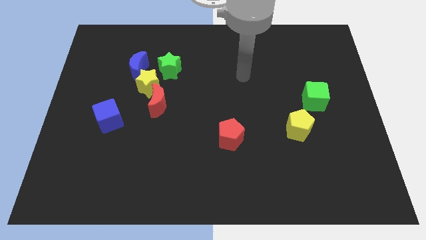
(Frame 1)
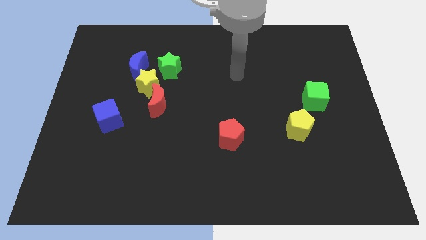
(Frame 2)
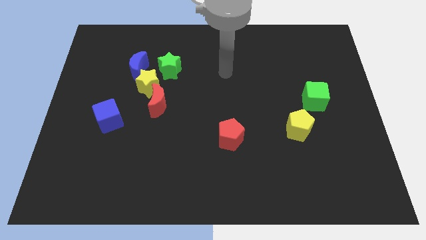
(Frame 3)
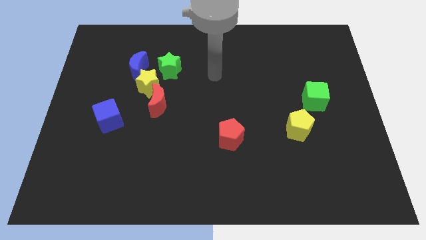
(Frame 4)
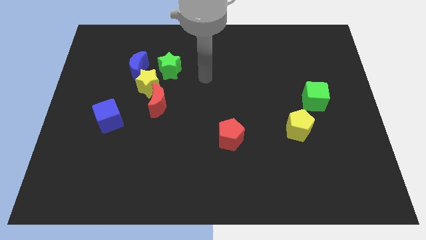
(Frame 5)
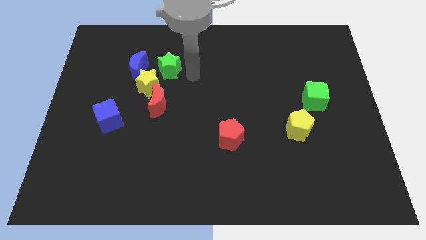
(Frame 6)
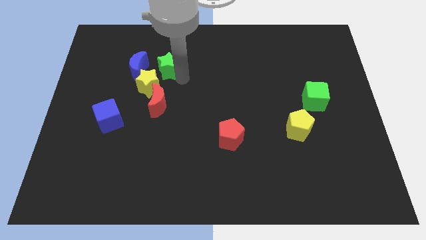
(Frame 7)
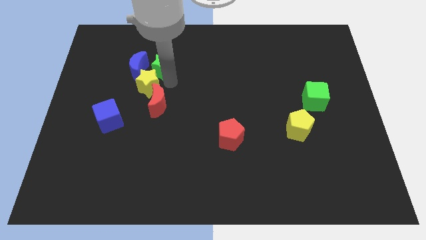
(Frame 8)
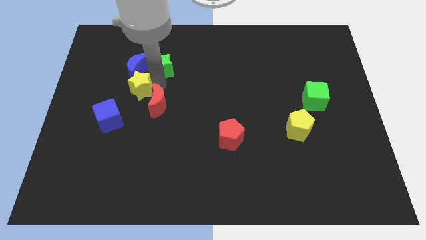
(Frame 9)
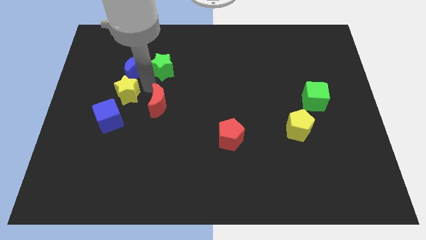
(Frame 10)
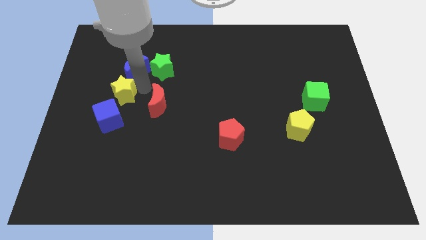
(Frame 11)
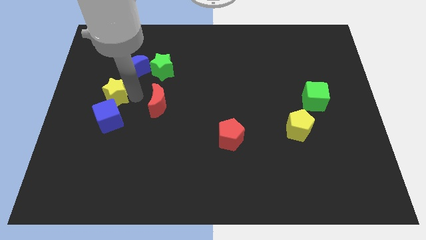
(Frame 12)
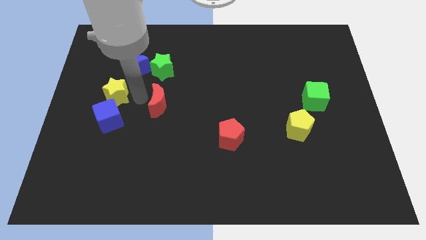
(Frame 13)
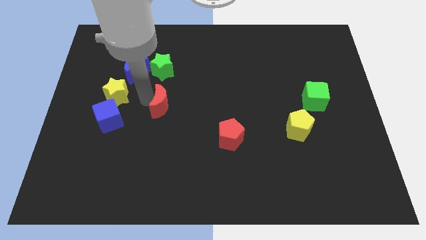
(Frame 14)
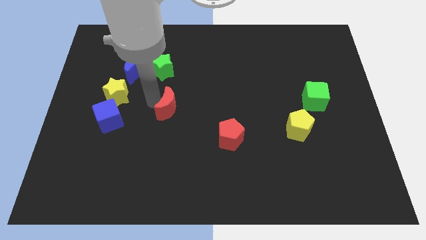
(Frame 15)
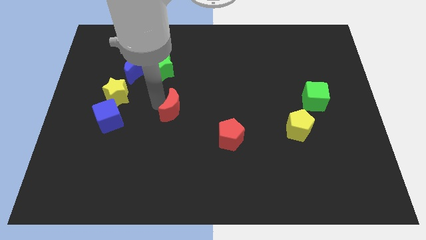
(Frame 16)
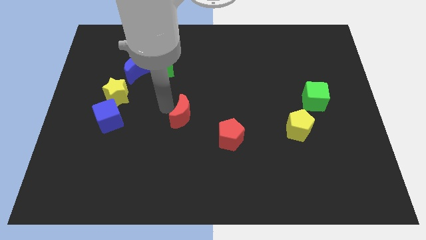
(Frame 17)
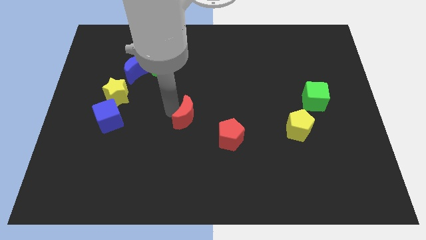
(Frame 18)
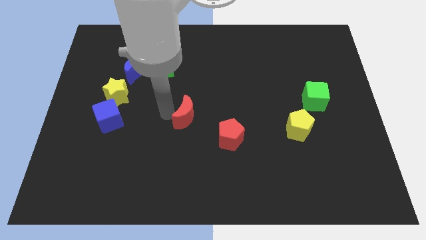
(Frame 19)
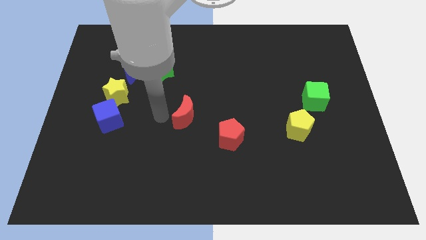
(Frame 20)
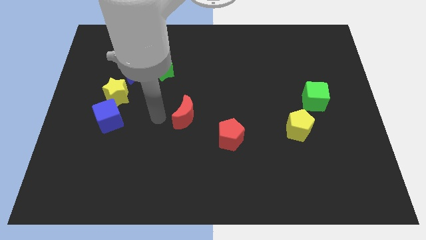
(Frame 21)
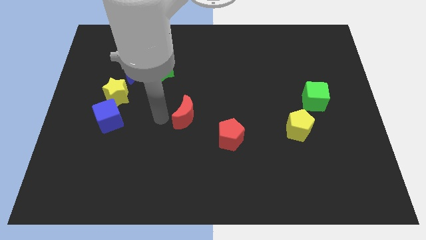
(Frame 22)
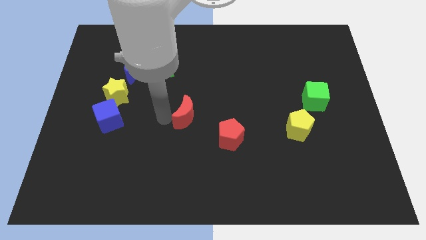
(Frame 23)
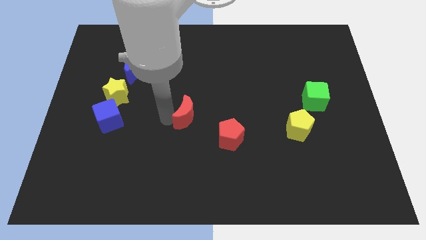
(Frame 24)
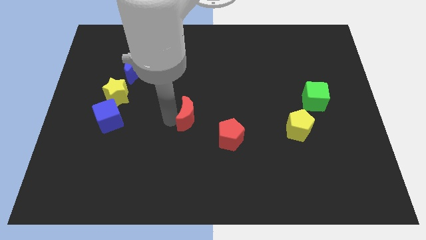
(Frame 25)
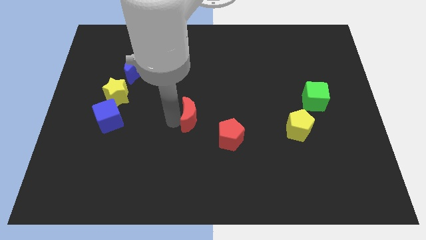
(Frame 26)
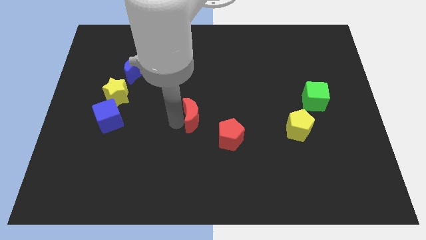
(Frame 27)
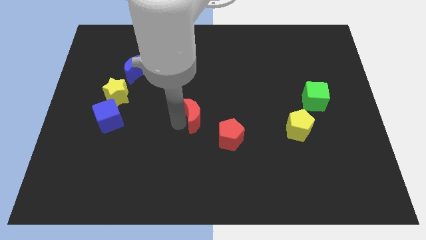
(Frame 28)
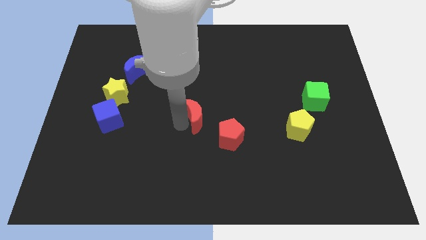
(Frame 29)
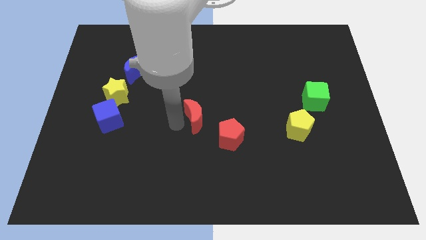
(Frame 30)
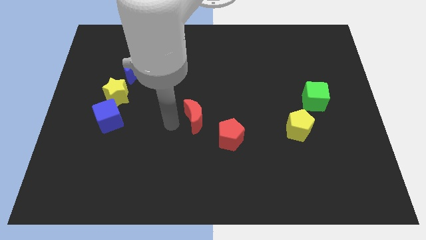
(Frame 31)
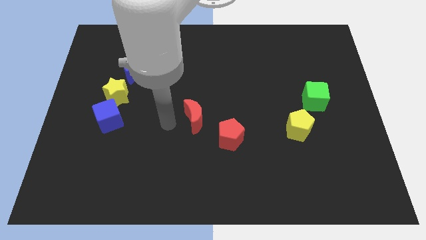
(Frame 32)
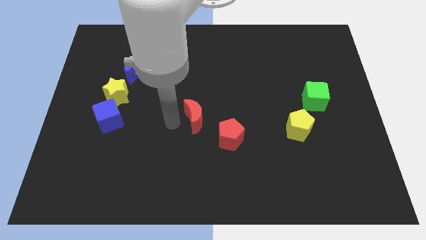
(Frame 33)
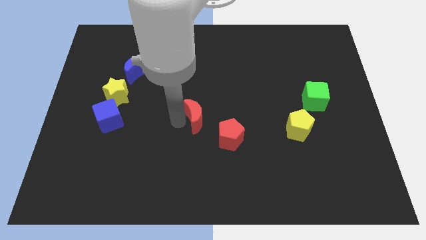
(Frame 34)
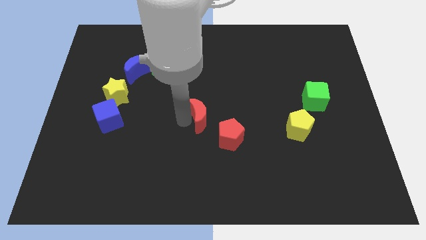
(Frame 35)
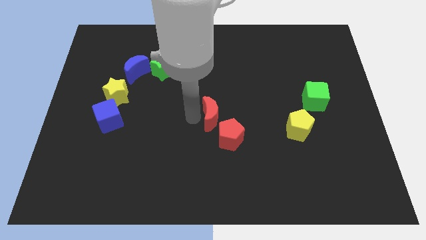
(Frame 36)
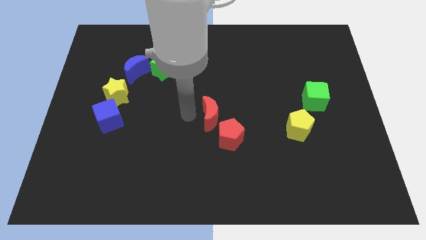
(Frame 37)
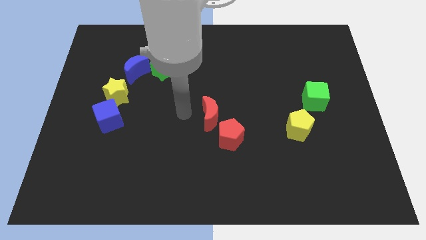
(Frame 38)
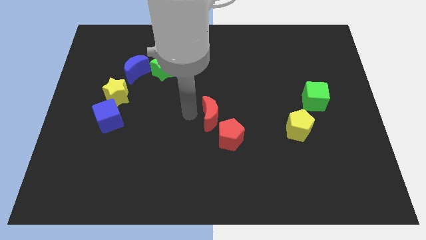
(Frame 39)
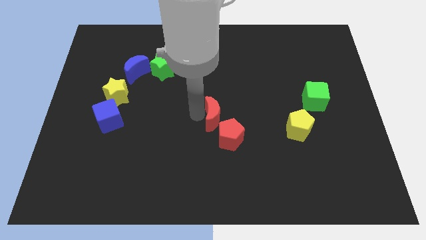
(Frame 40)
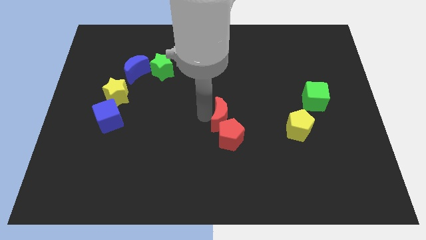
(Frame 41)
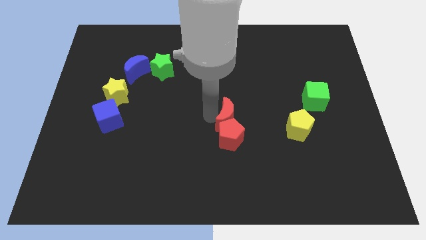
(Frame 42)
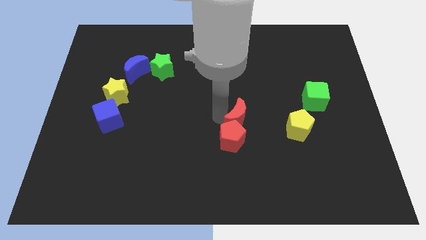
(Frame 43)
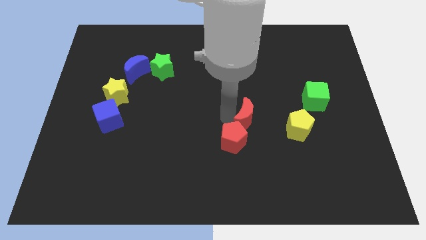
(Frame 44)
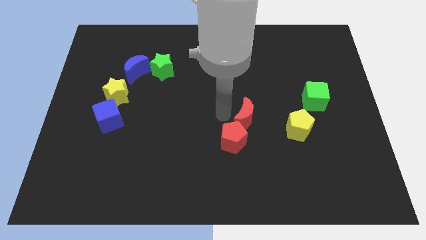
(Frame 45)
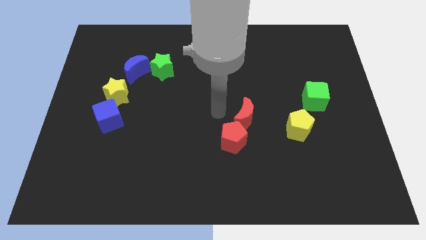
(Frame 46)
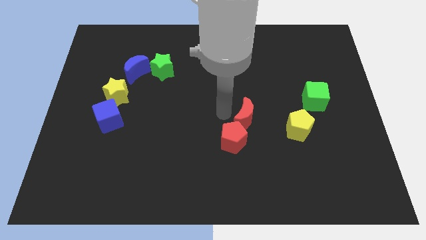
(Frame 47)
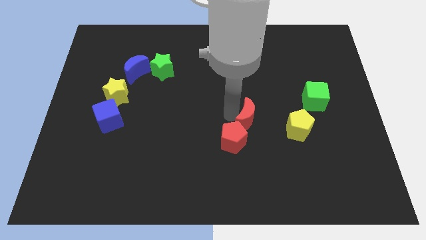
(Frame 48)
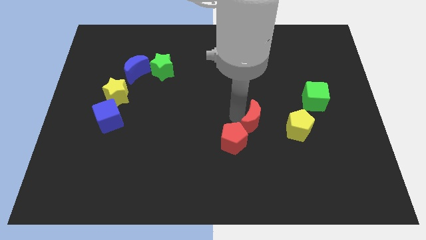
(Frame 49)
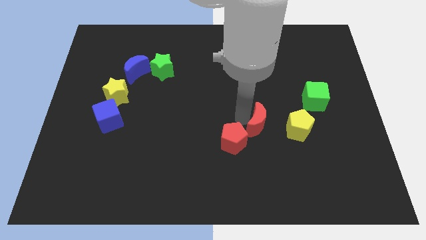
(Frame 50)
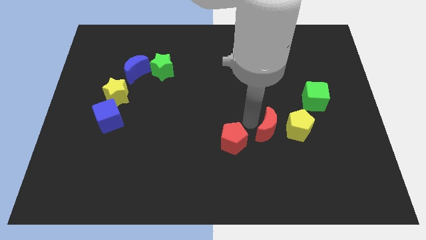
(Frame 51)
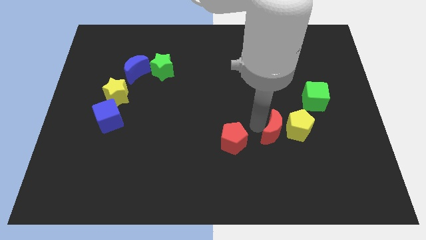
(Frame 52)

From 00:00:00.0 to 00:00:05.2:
put the red moon towards the yellow pentagon

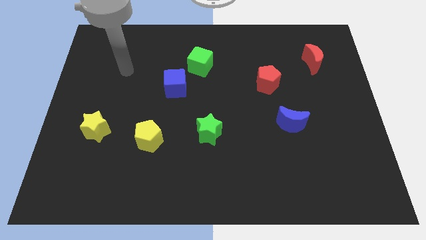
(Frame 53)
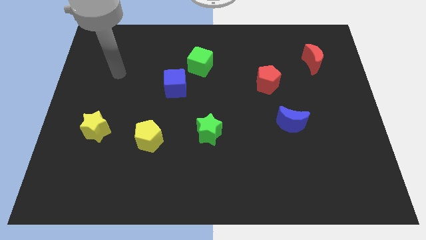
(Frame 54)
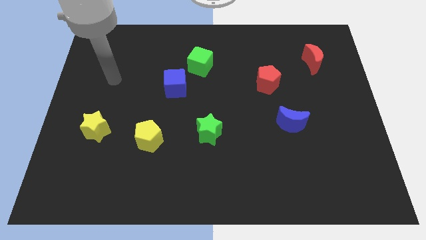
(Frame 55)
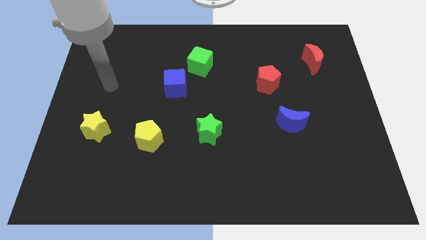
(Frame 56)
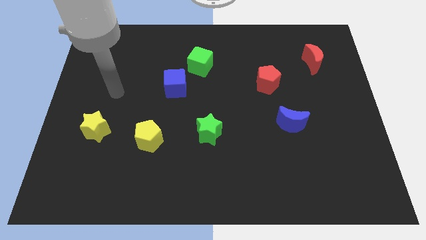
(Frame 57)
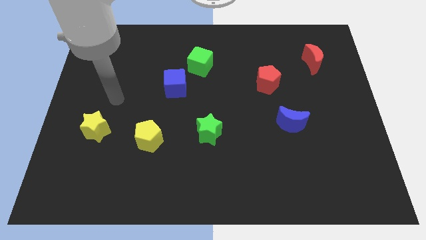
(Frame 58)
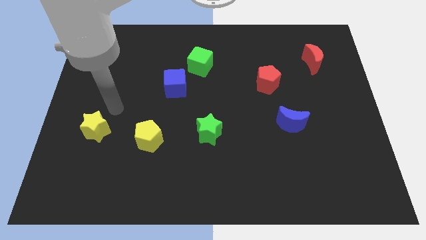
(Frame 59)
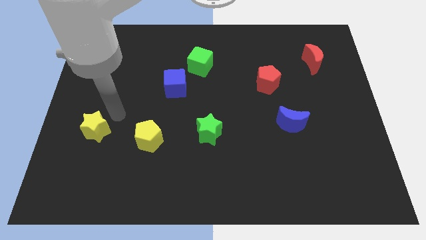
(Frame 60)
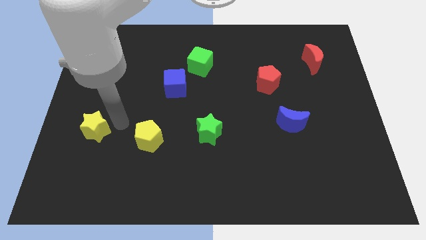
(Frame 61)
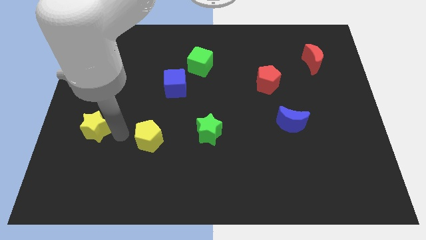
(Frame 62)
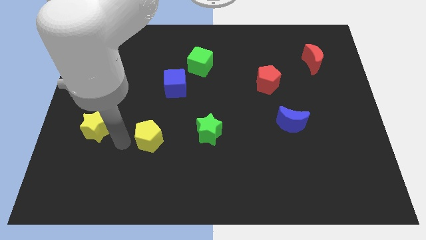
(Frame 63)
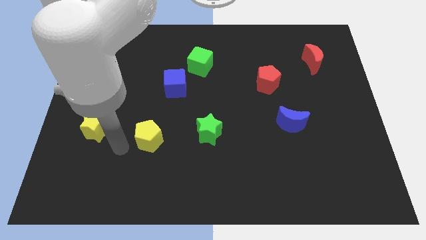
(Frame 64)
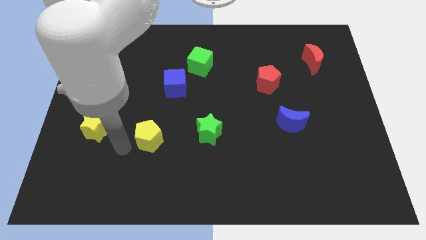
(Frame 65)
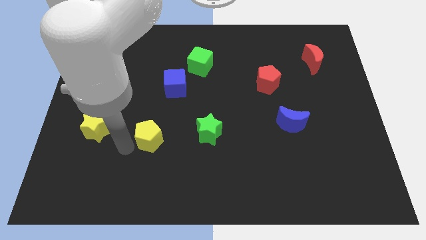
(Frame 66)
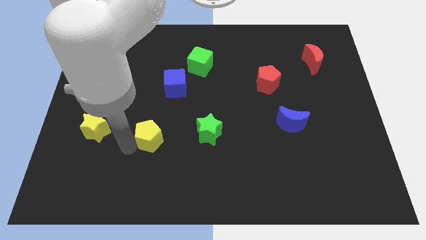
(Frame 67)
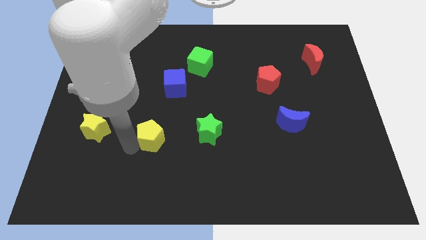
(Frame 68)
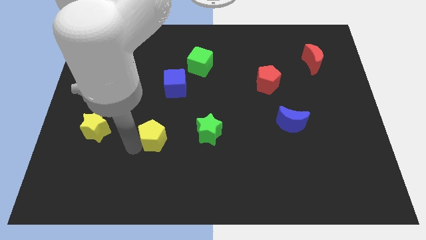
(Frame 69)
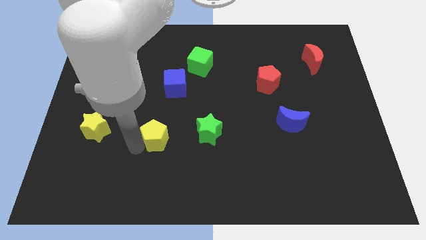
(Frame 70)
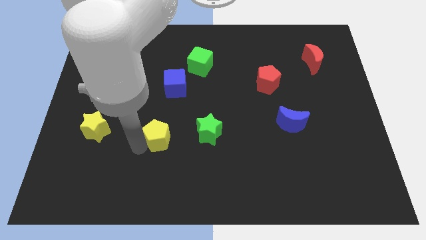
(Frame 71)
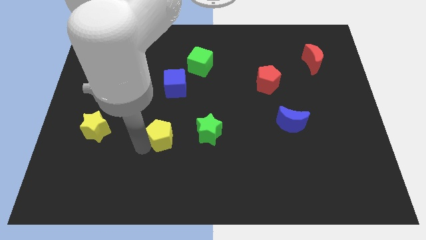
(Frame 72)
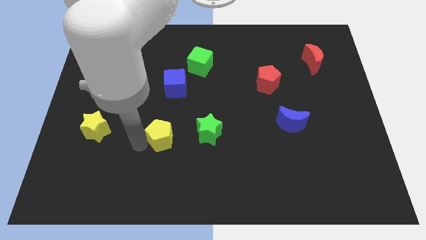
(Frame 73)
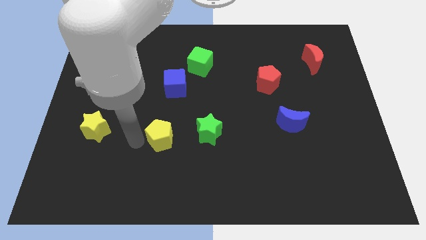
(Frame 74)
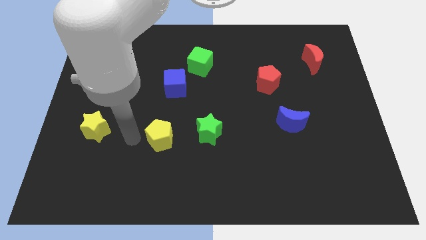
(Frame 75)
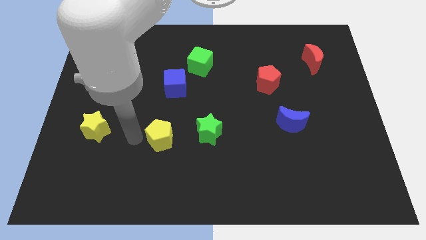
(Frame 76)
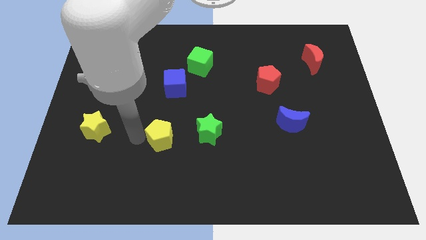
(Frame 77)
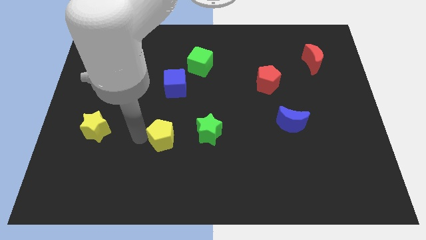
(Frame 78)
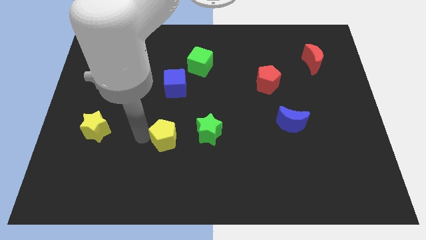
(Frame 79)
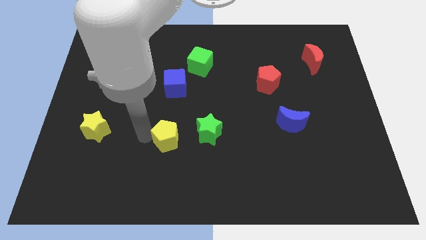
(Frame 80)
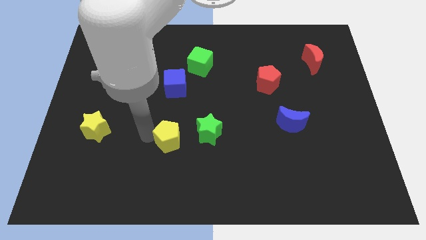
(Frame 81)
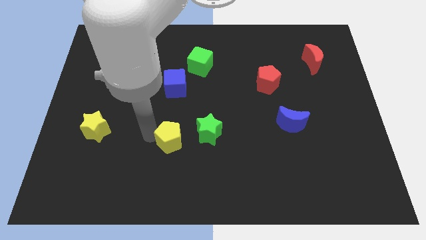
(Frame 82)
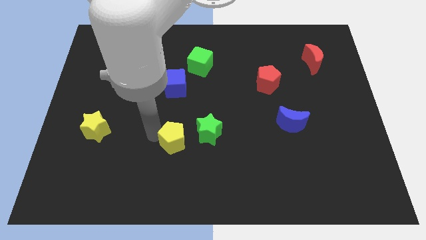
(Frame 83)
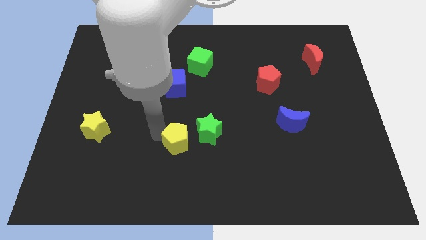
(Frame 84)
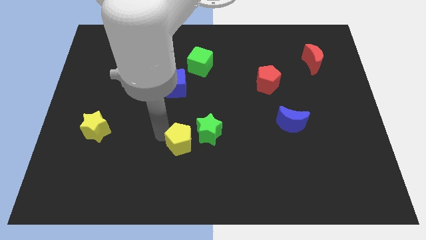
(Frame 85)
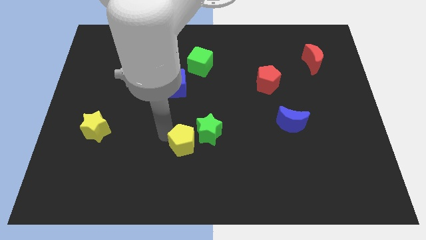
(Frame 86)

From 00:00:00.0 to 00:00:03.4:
slide the yellow pentagon towards the green star
